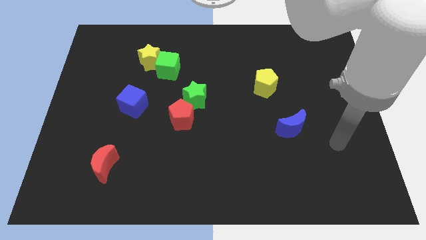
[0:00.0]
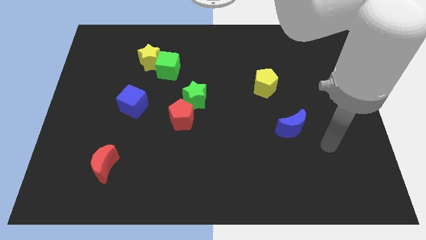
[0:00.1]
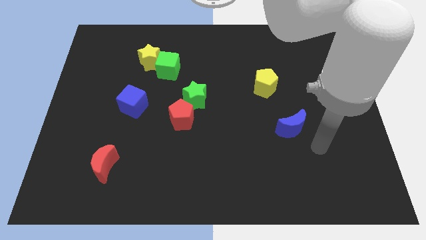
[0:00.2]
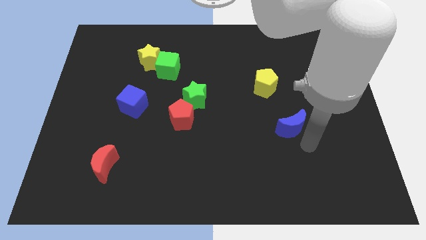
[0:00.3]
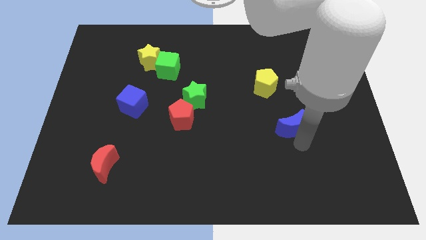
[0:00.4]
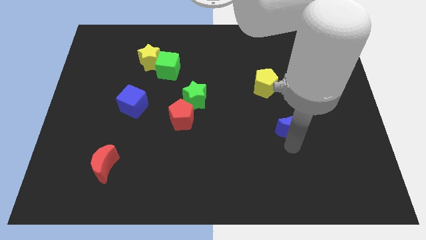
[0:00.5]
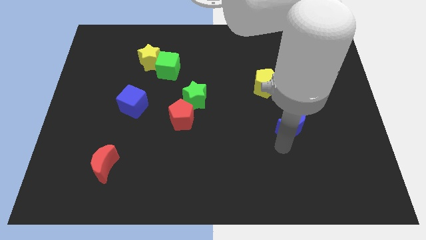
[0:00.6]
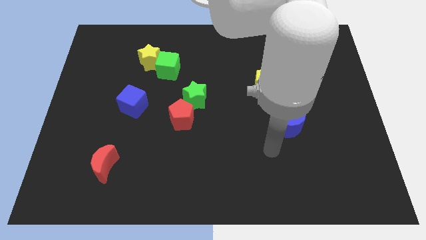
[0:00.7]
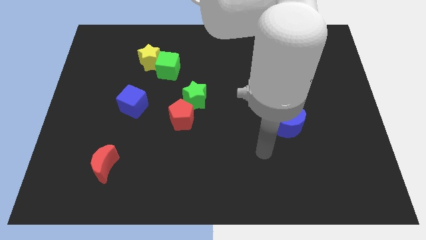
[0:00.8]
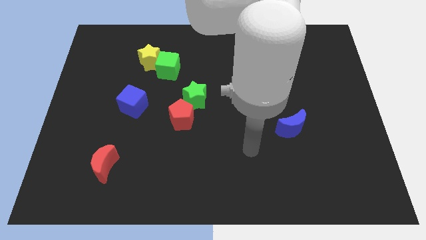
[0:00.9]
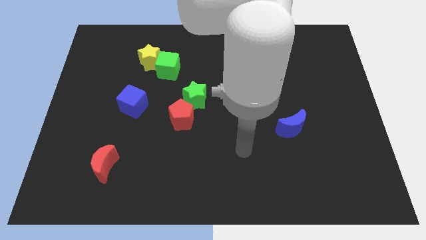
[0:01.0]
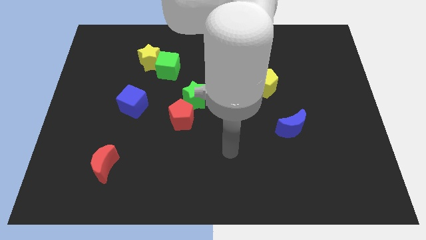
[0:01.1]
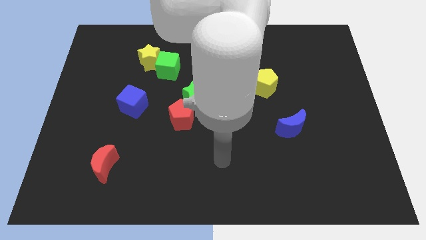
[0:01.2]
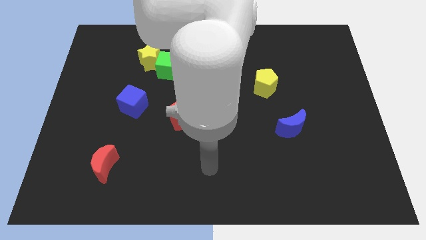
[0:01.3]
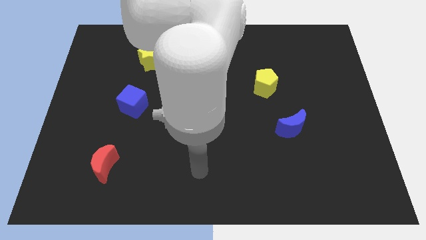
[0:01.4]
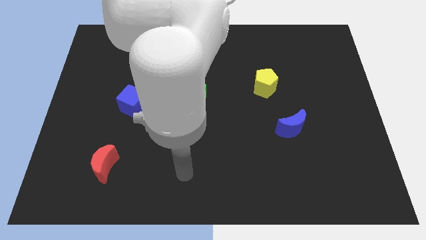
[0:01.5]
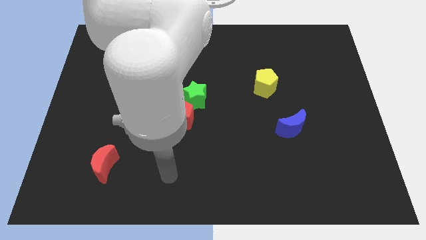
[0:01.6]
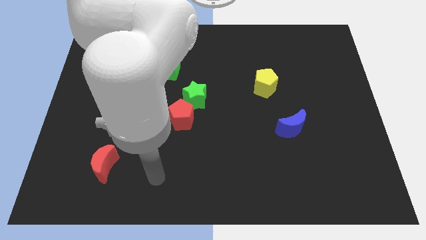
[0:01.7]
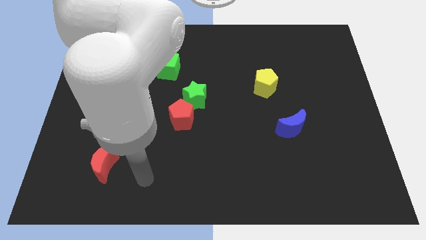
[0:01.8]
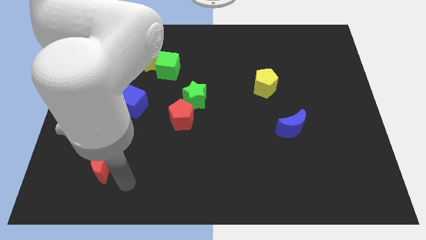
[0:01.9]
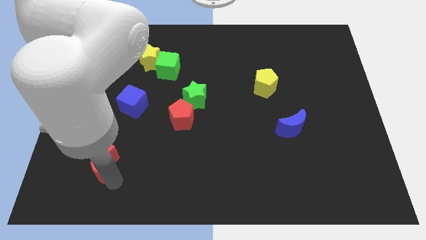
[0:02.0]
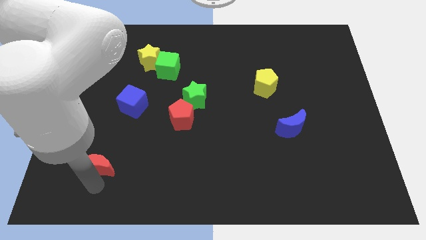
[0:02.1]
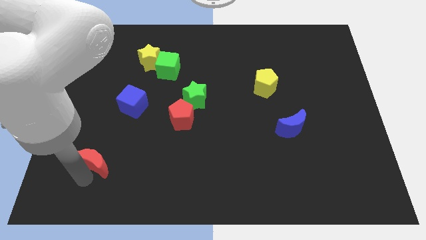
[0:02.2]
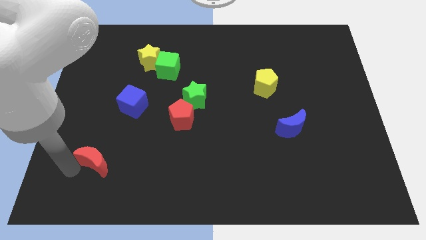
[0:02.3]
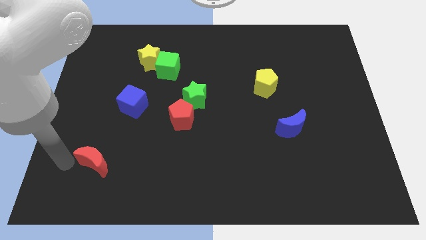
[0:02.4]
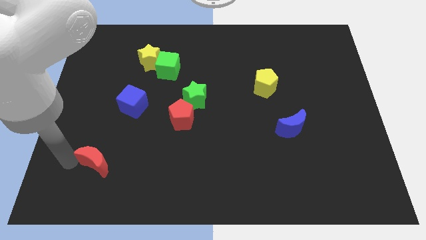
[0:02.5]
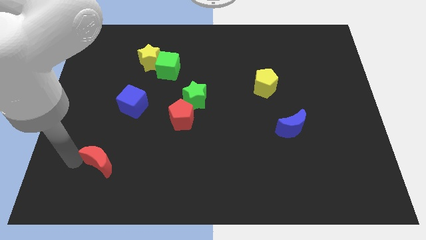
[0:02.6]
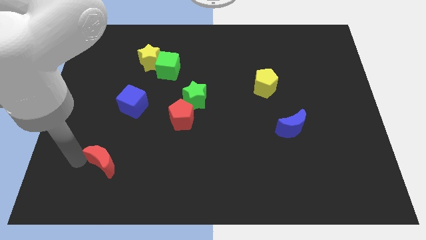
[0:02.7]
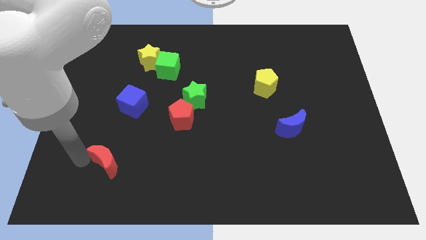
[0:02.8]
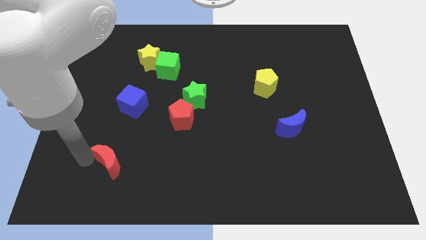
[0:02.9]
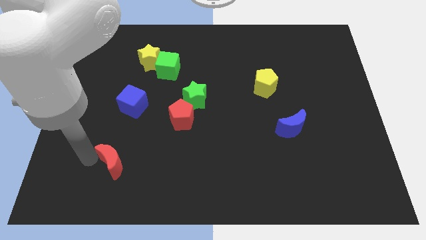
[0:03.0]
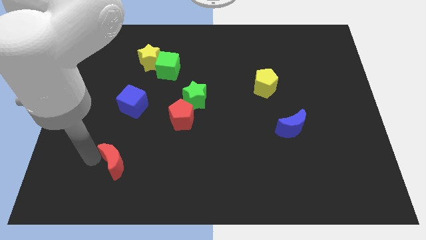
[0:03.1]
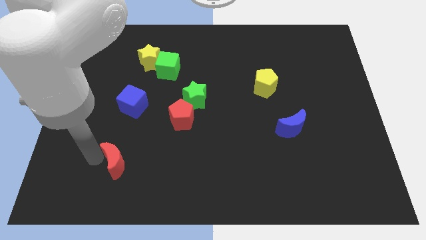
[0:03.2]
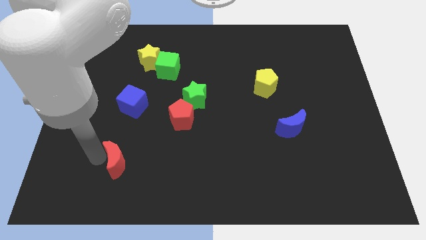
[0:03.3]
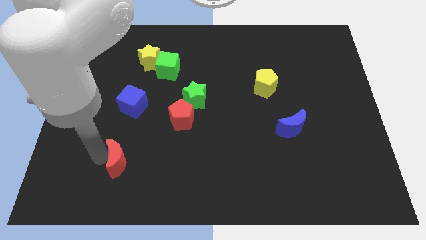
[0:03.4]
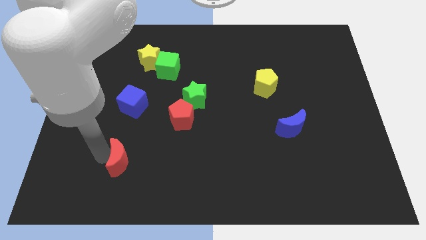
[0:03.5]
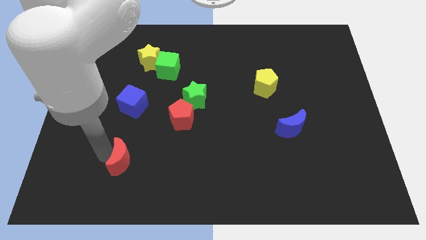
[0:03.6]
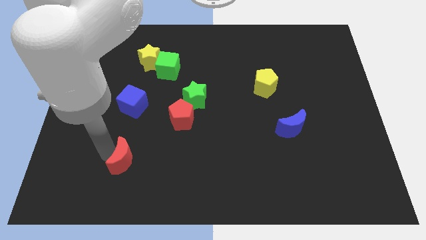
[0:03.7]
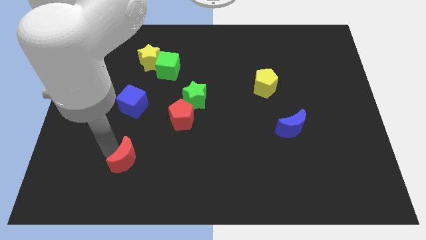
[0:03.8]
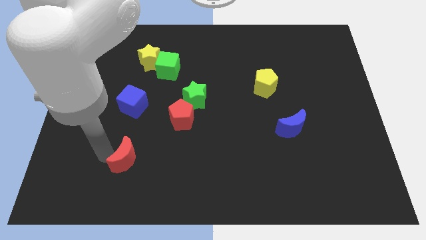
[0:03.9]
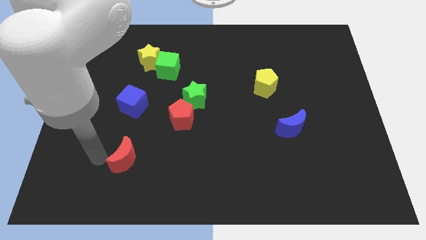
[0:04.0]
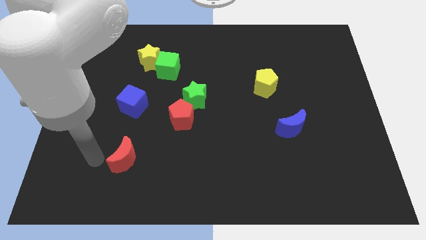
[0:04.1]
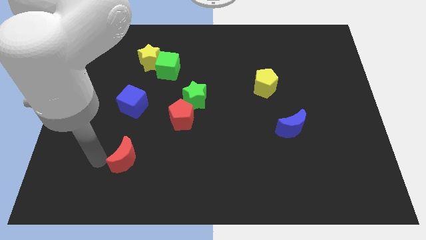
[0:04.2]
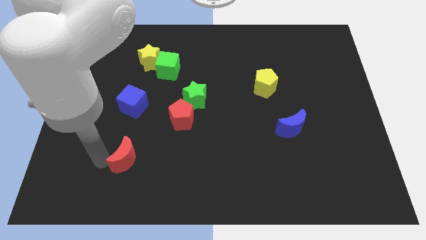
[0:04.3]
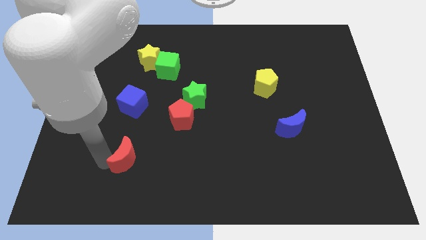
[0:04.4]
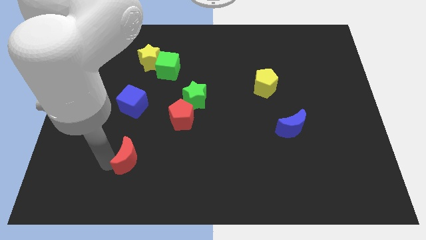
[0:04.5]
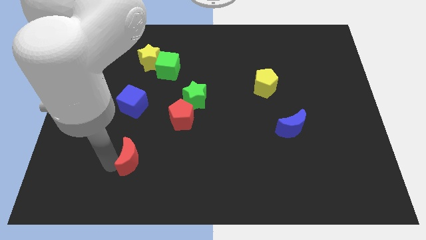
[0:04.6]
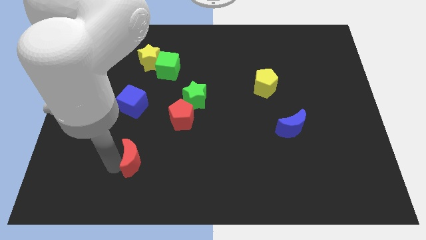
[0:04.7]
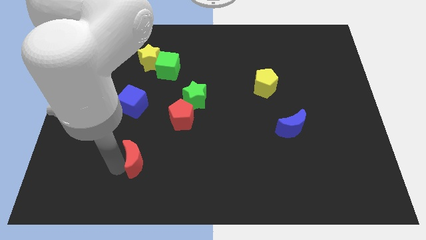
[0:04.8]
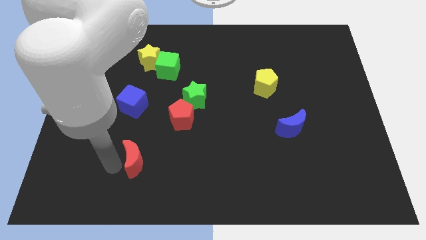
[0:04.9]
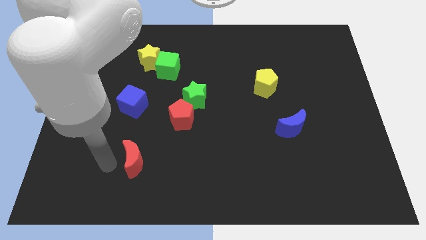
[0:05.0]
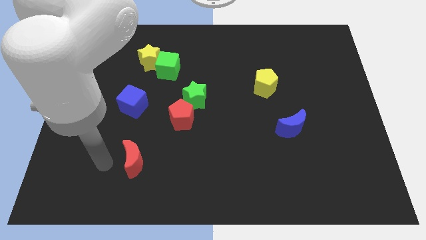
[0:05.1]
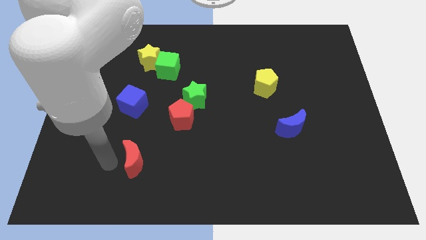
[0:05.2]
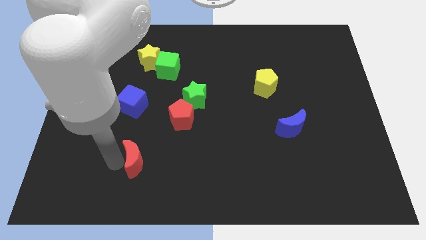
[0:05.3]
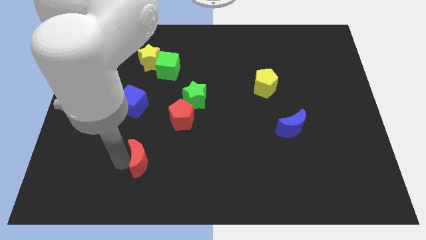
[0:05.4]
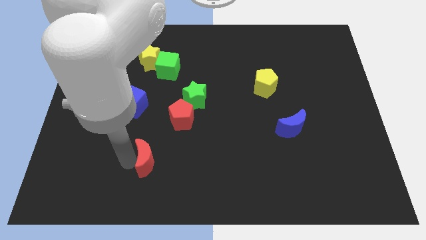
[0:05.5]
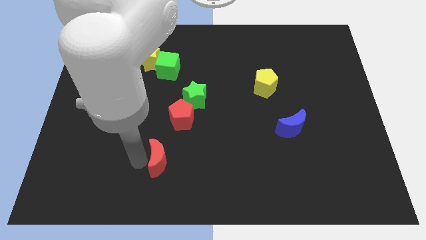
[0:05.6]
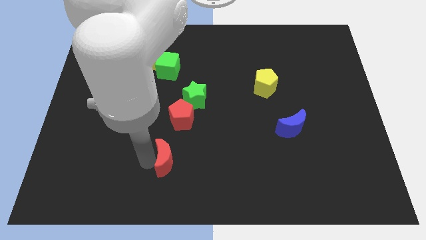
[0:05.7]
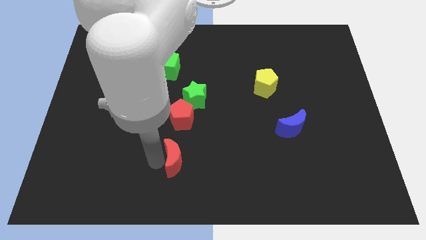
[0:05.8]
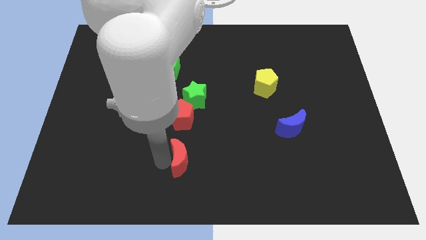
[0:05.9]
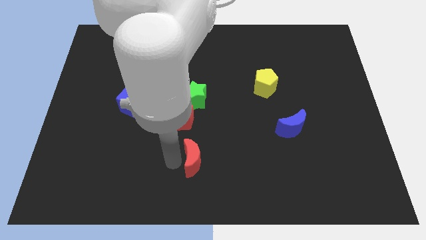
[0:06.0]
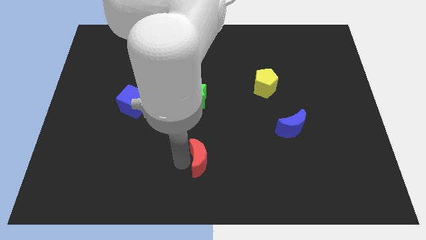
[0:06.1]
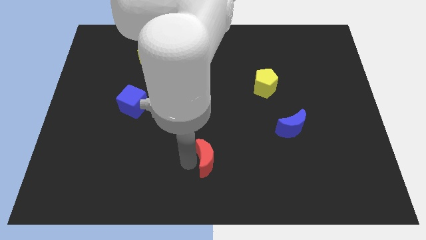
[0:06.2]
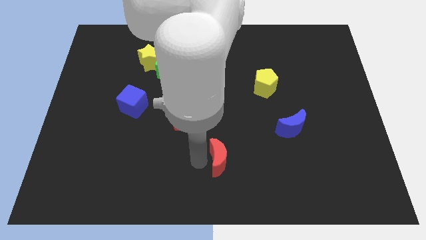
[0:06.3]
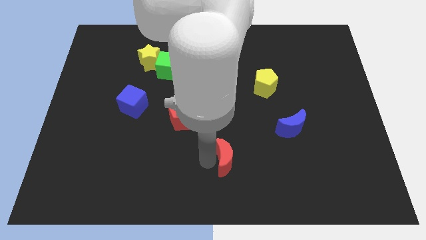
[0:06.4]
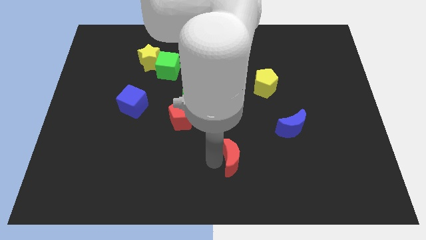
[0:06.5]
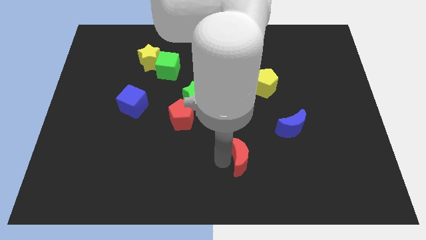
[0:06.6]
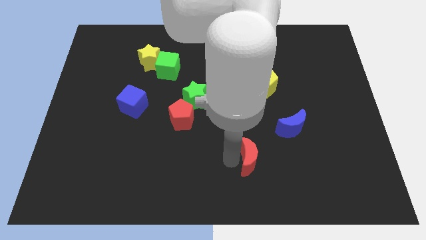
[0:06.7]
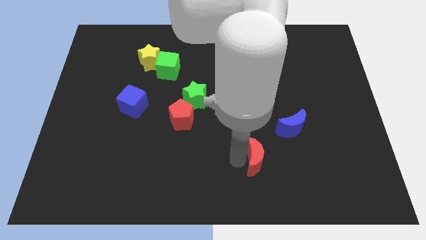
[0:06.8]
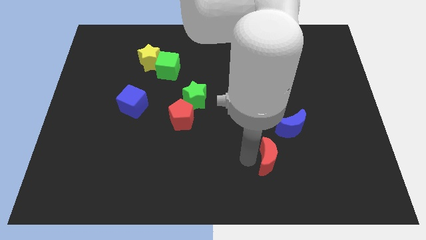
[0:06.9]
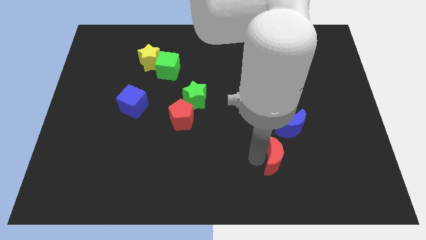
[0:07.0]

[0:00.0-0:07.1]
push the red moon below the blue moon
